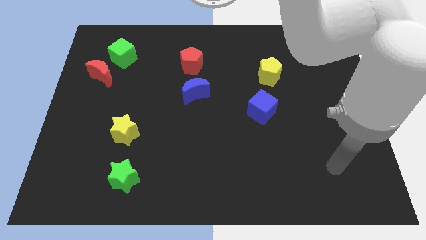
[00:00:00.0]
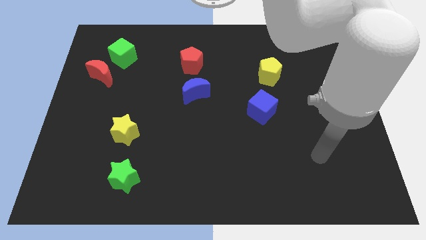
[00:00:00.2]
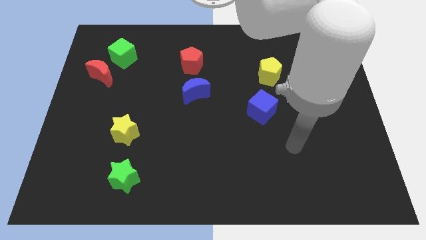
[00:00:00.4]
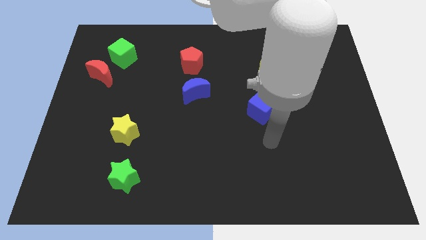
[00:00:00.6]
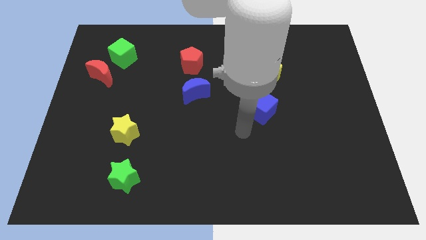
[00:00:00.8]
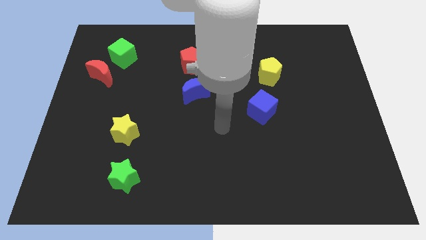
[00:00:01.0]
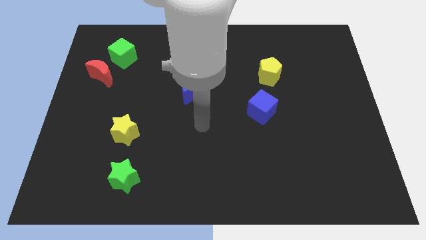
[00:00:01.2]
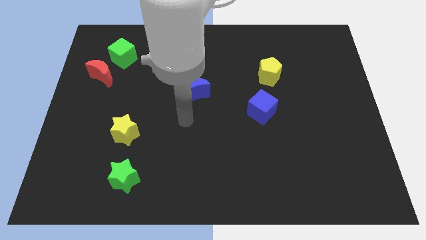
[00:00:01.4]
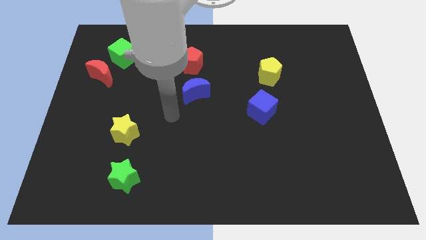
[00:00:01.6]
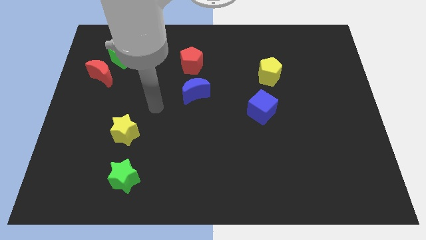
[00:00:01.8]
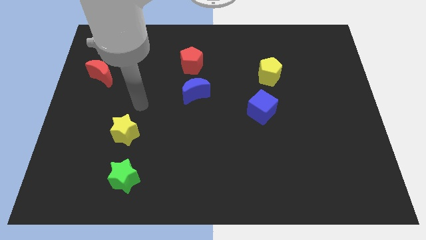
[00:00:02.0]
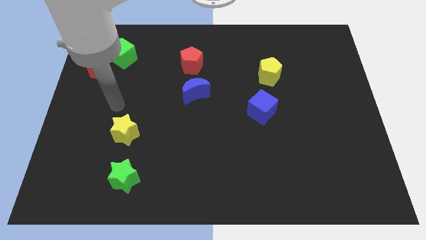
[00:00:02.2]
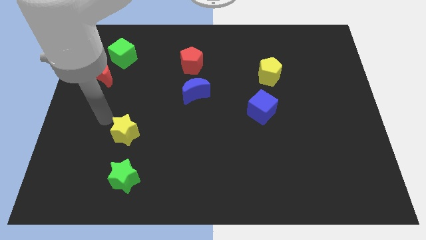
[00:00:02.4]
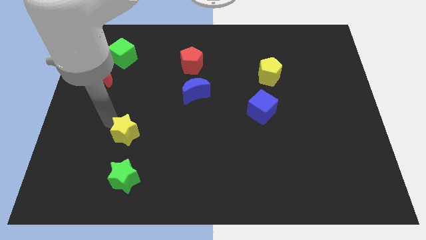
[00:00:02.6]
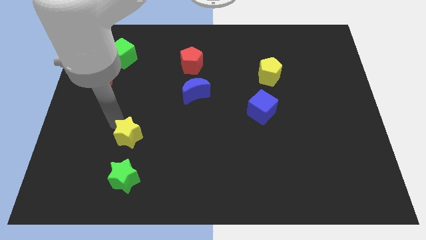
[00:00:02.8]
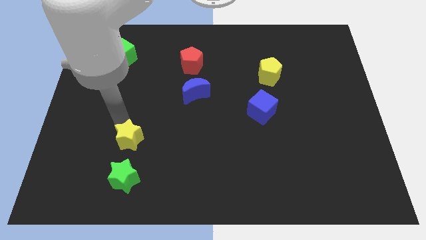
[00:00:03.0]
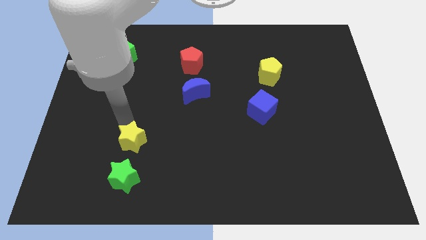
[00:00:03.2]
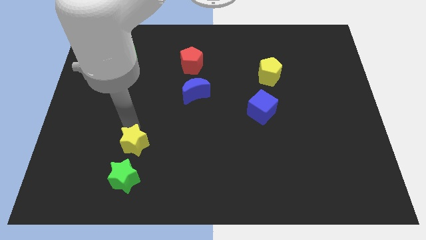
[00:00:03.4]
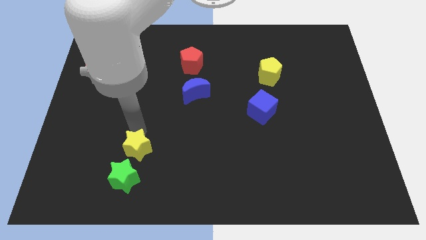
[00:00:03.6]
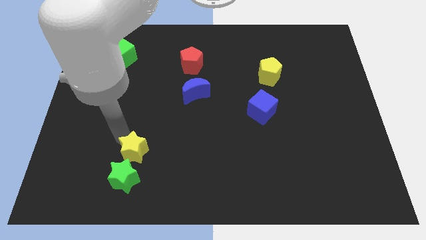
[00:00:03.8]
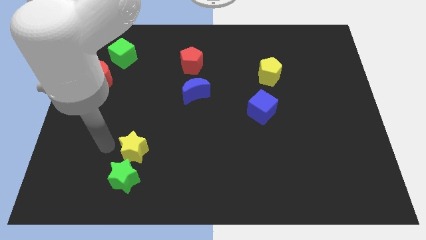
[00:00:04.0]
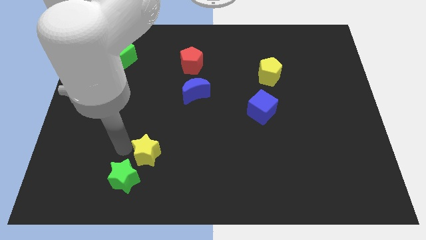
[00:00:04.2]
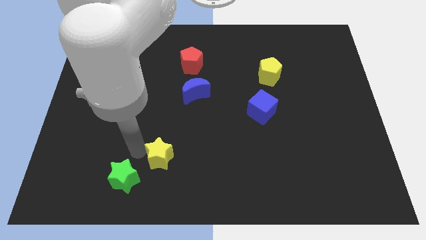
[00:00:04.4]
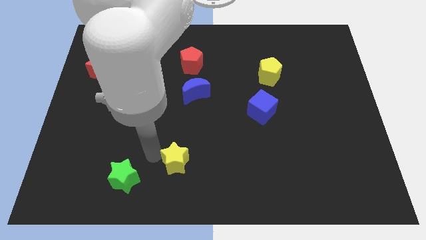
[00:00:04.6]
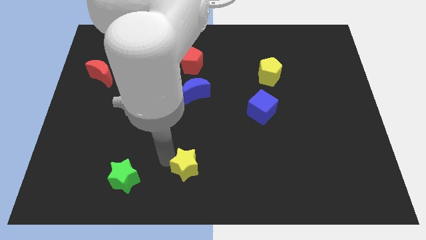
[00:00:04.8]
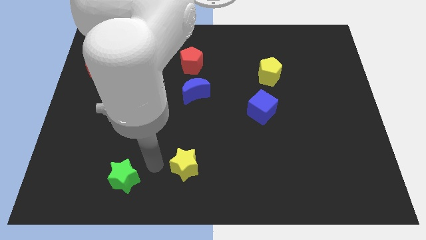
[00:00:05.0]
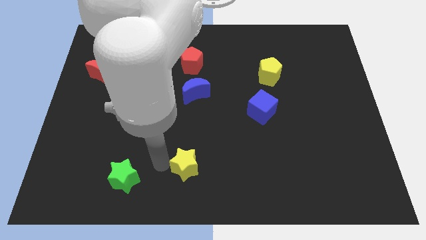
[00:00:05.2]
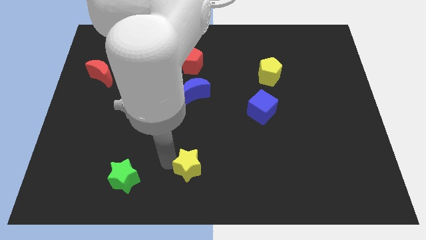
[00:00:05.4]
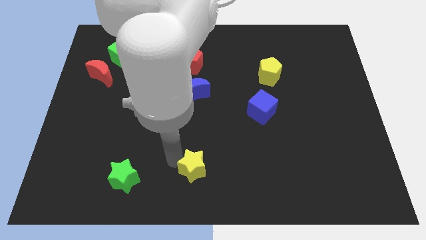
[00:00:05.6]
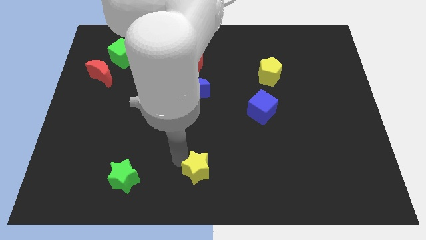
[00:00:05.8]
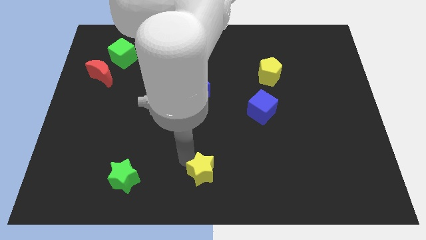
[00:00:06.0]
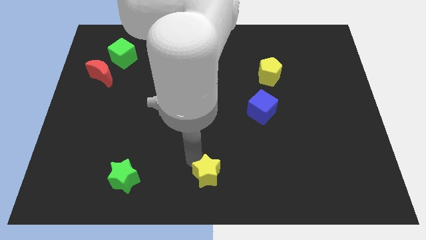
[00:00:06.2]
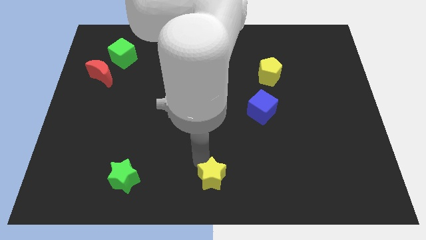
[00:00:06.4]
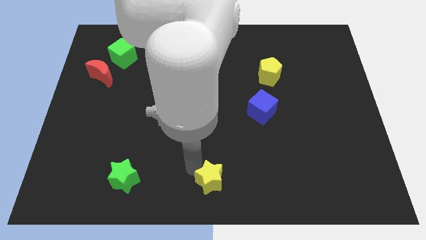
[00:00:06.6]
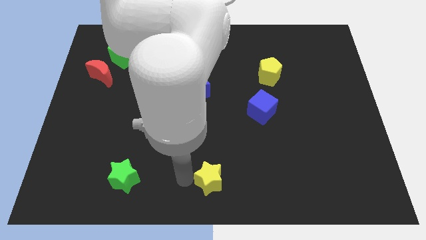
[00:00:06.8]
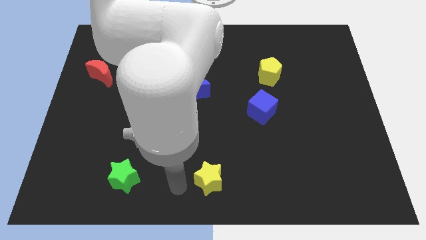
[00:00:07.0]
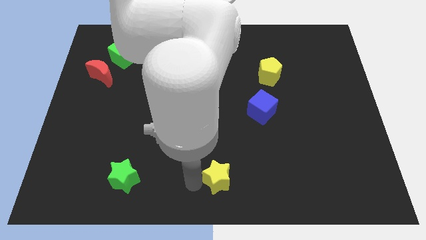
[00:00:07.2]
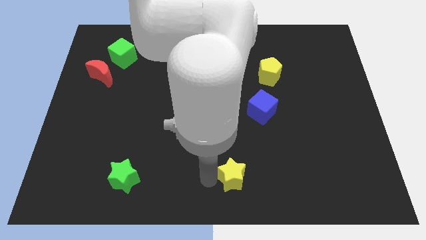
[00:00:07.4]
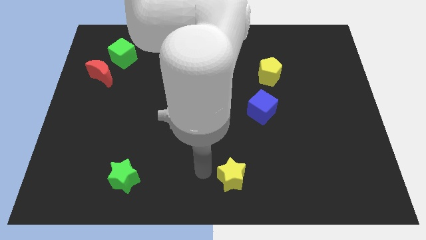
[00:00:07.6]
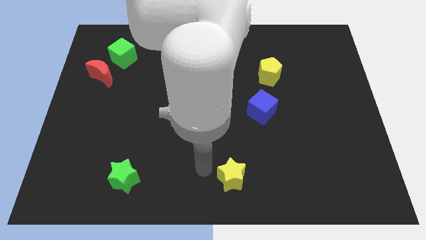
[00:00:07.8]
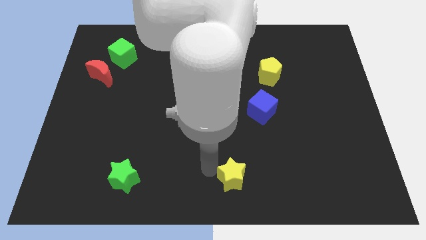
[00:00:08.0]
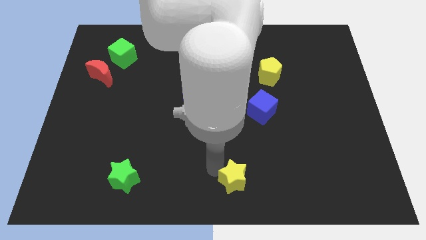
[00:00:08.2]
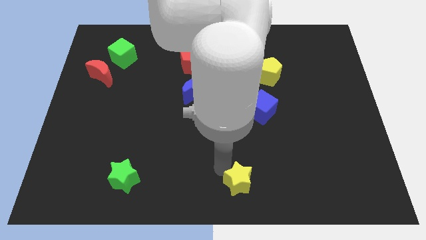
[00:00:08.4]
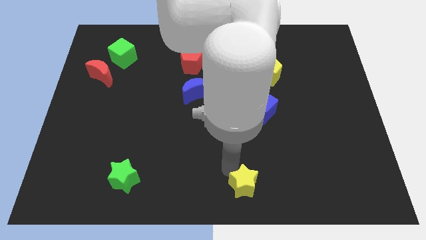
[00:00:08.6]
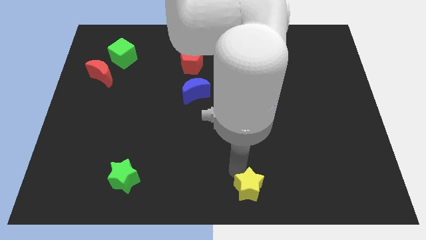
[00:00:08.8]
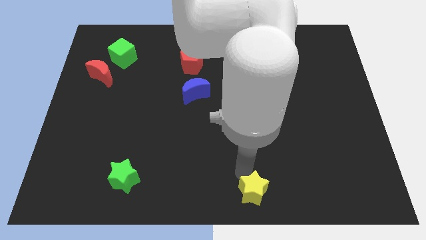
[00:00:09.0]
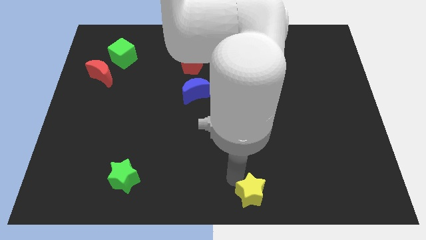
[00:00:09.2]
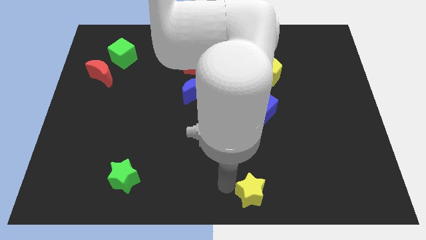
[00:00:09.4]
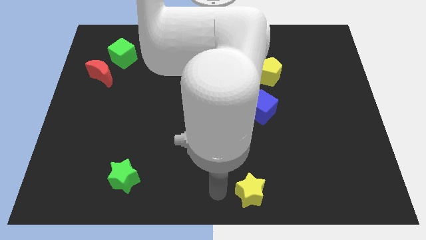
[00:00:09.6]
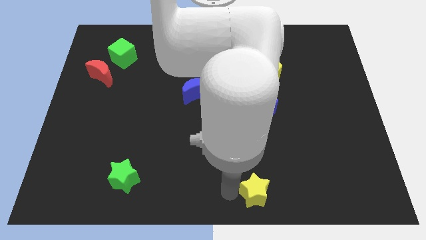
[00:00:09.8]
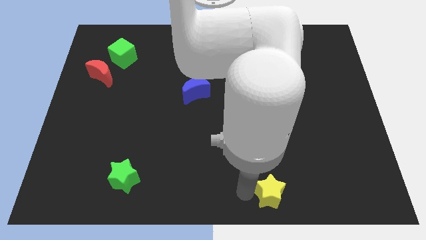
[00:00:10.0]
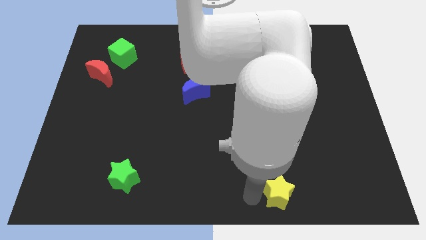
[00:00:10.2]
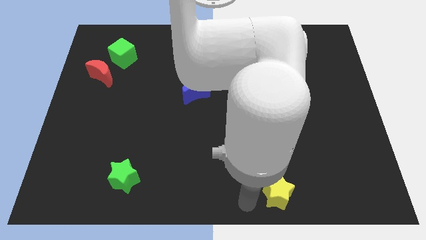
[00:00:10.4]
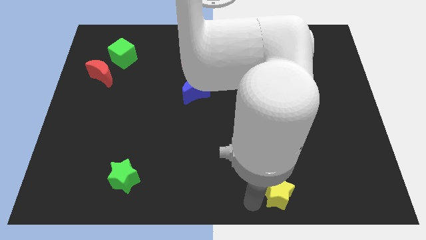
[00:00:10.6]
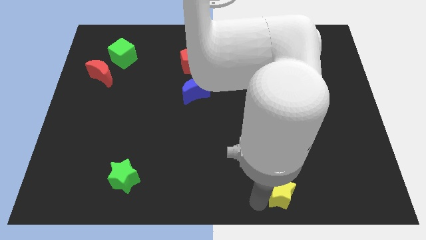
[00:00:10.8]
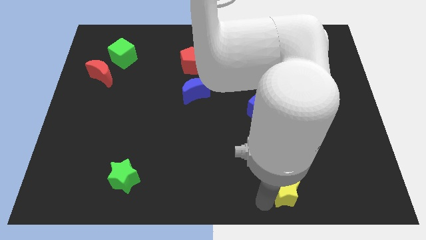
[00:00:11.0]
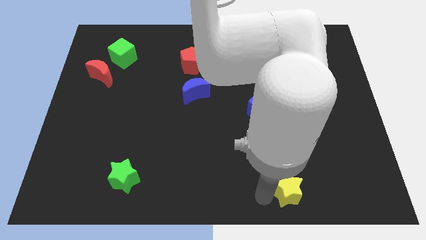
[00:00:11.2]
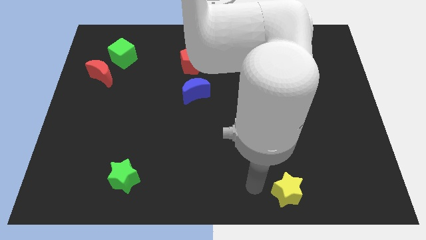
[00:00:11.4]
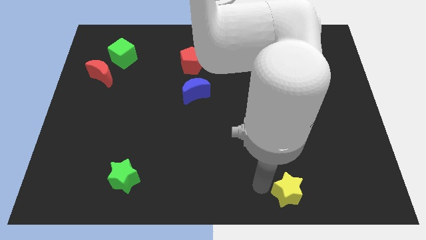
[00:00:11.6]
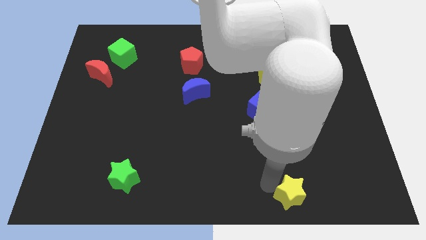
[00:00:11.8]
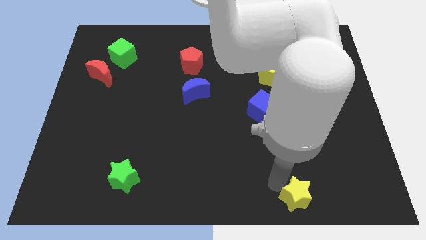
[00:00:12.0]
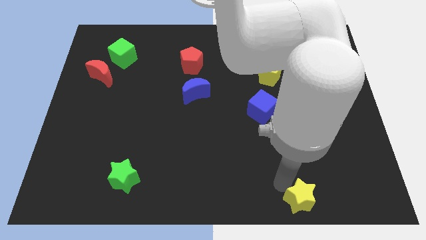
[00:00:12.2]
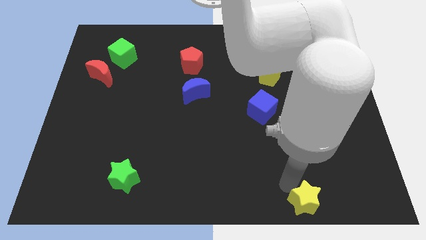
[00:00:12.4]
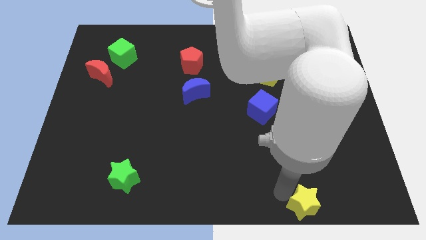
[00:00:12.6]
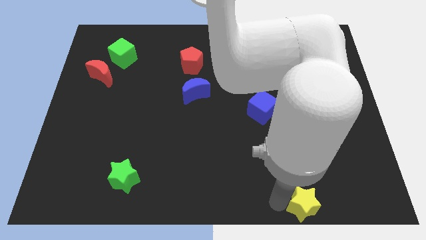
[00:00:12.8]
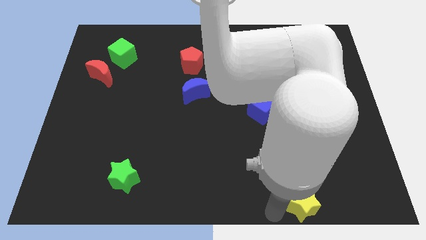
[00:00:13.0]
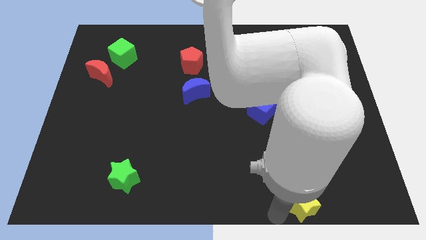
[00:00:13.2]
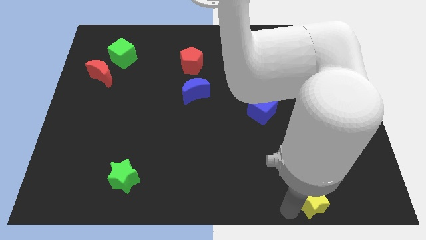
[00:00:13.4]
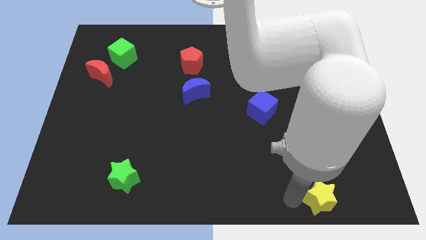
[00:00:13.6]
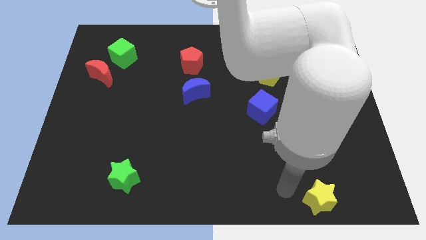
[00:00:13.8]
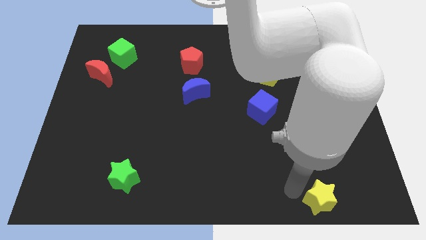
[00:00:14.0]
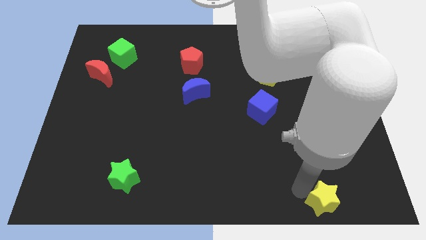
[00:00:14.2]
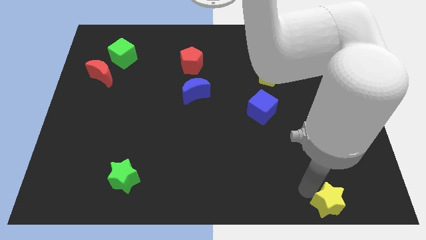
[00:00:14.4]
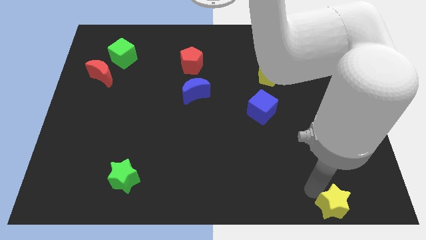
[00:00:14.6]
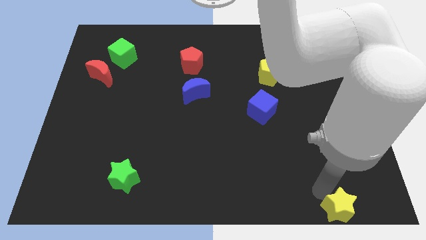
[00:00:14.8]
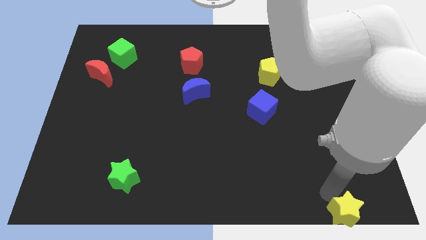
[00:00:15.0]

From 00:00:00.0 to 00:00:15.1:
slide the yellow star to the bottom right corner
